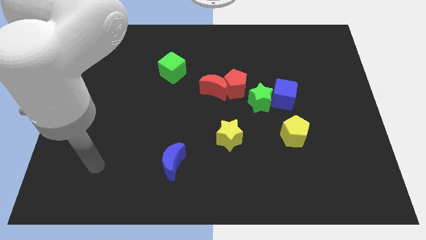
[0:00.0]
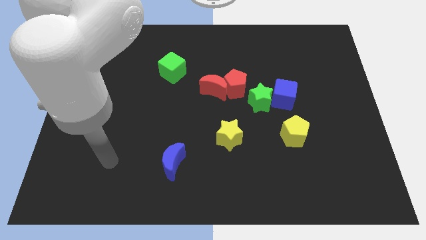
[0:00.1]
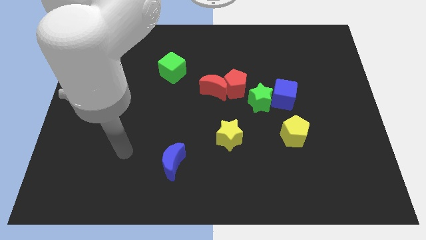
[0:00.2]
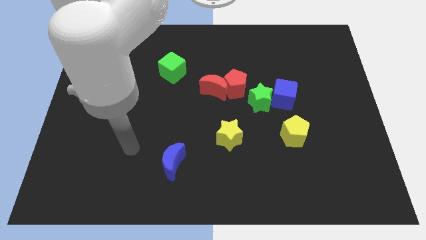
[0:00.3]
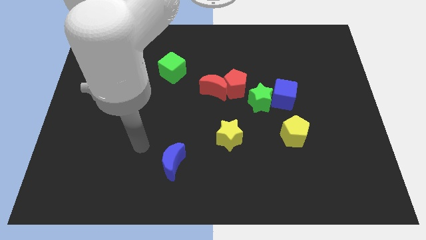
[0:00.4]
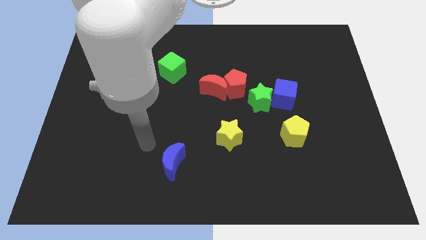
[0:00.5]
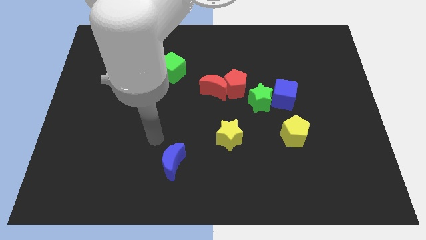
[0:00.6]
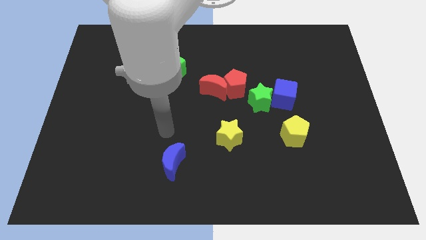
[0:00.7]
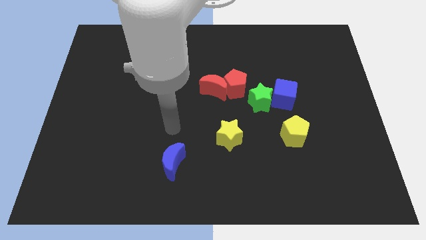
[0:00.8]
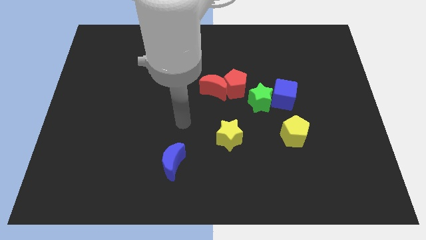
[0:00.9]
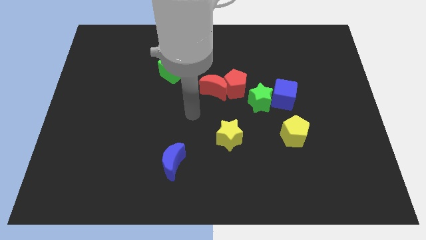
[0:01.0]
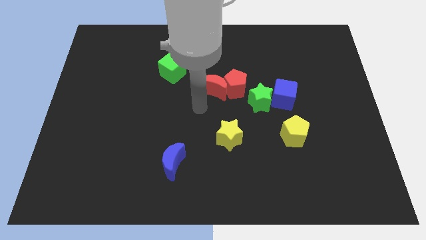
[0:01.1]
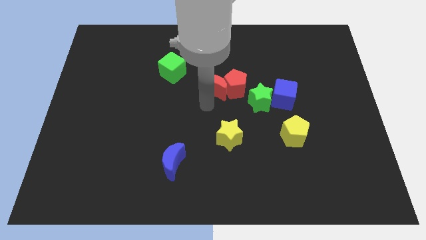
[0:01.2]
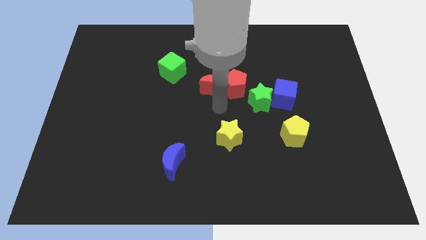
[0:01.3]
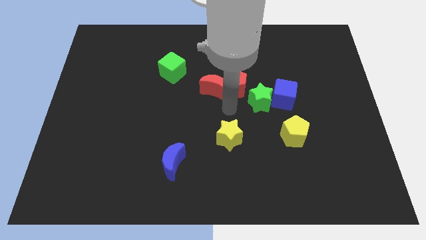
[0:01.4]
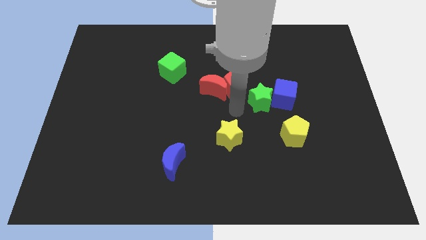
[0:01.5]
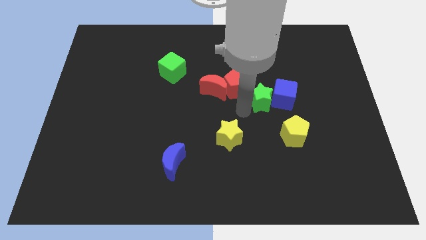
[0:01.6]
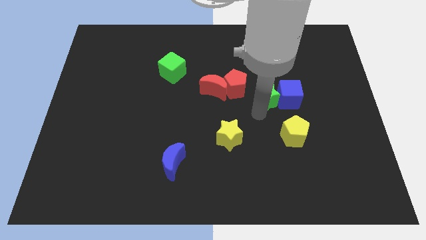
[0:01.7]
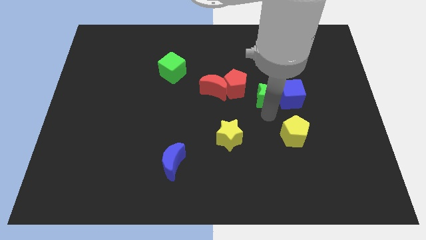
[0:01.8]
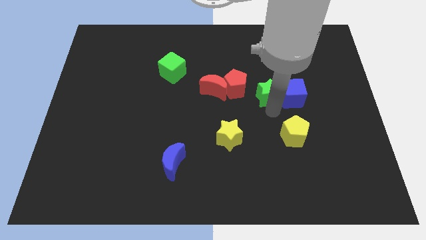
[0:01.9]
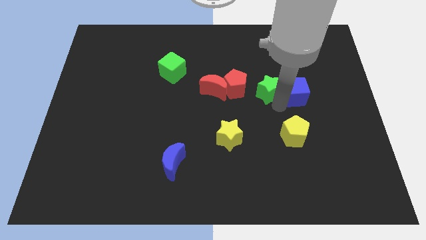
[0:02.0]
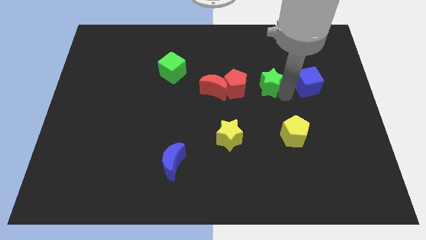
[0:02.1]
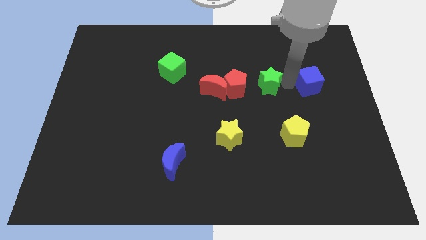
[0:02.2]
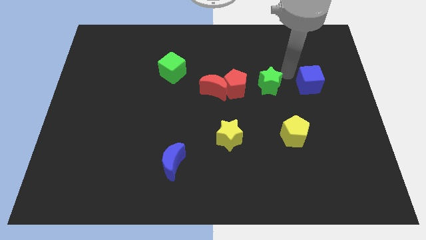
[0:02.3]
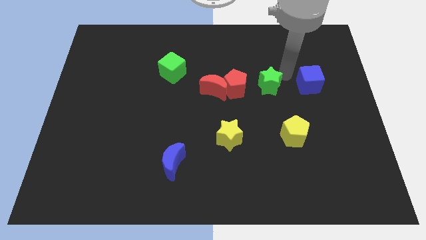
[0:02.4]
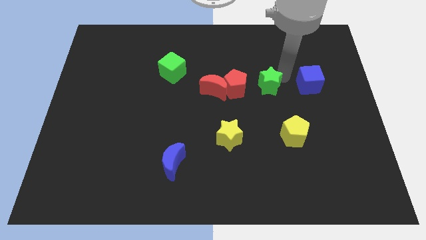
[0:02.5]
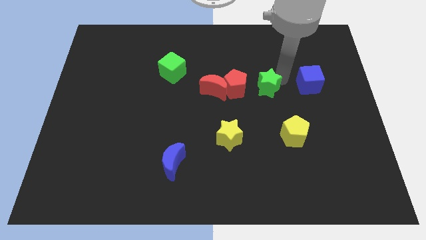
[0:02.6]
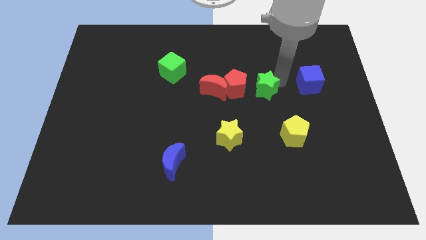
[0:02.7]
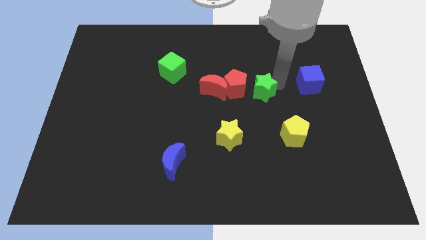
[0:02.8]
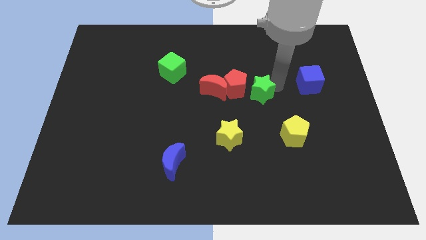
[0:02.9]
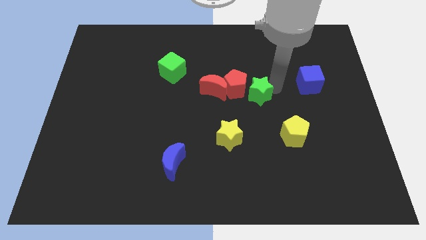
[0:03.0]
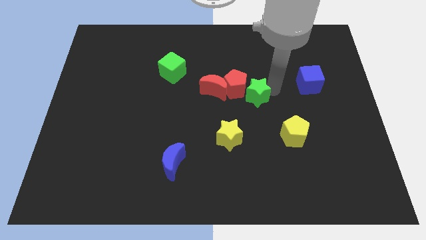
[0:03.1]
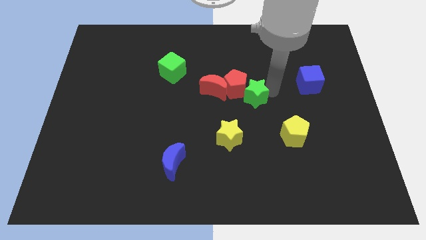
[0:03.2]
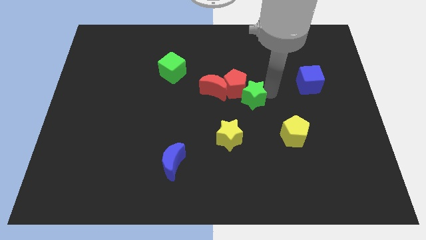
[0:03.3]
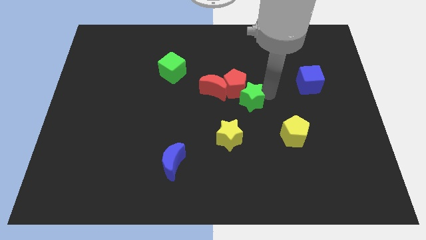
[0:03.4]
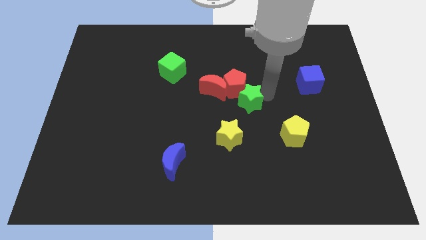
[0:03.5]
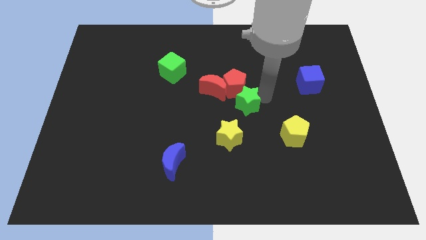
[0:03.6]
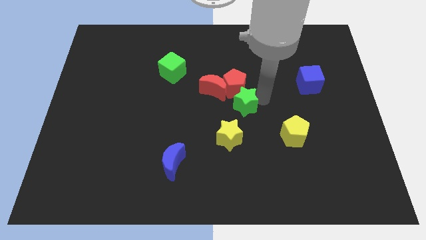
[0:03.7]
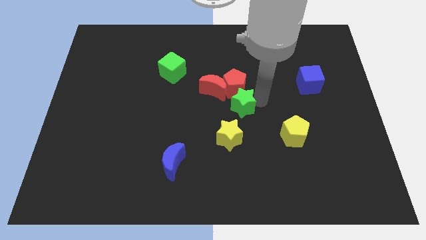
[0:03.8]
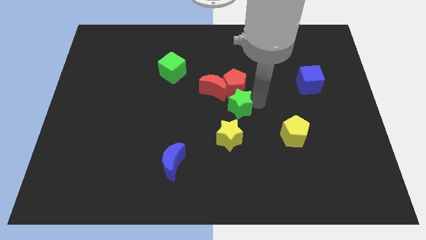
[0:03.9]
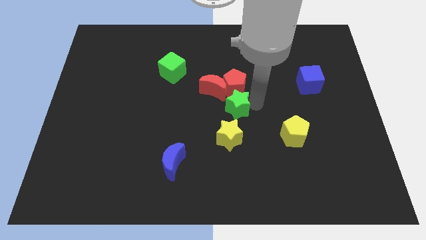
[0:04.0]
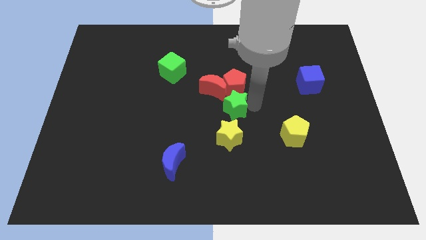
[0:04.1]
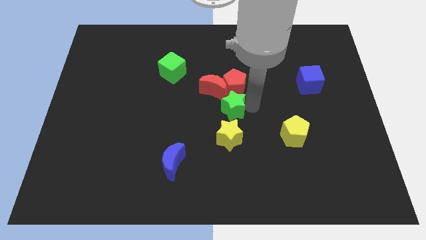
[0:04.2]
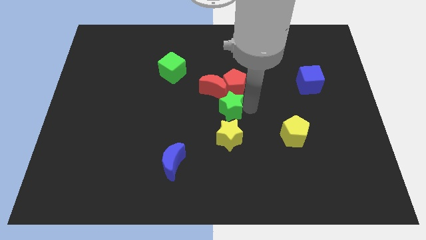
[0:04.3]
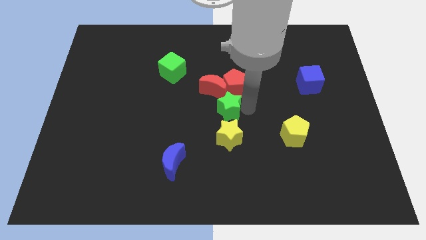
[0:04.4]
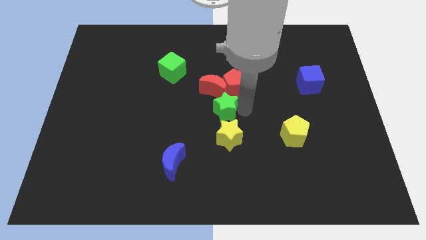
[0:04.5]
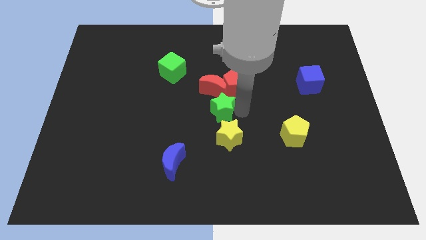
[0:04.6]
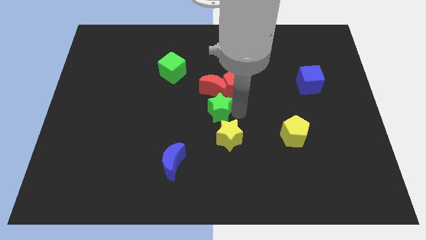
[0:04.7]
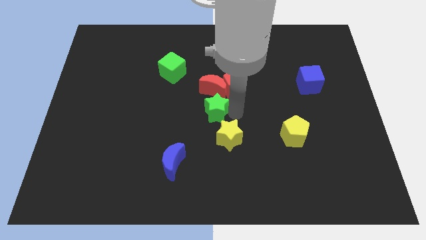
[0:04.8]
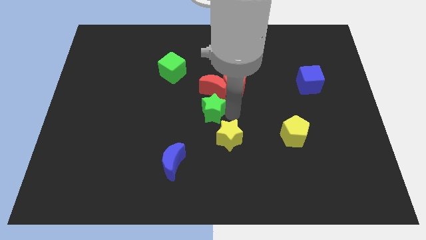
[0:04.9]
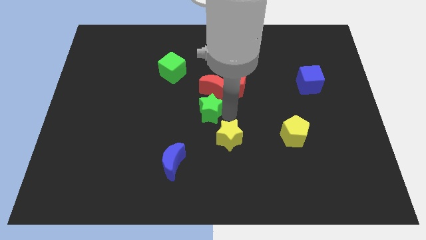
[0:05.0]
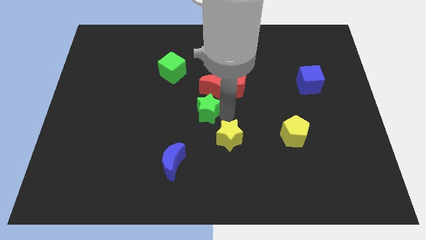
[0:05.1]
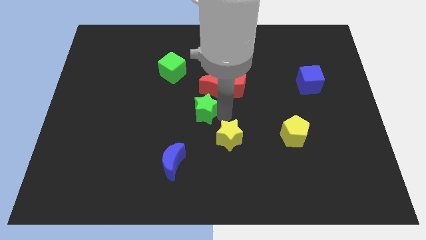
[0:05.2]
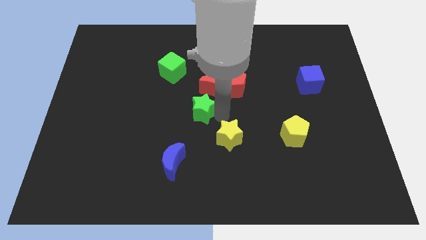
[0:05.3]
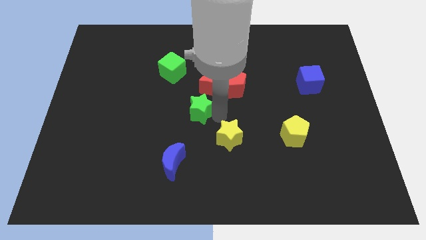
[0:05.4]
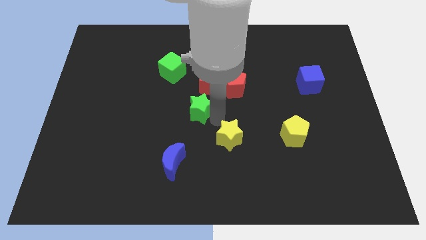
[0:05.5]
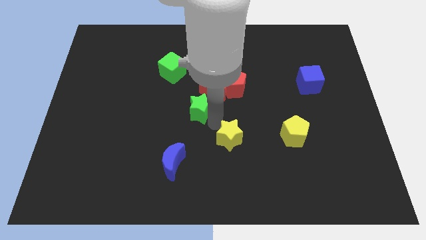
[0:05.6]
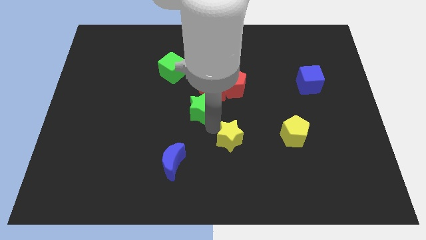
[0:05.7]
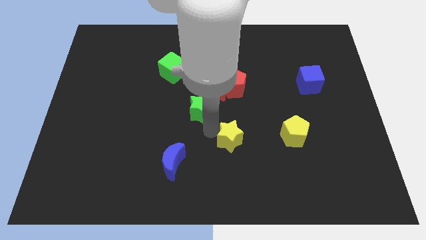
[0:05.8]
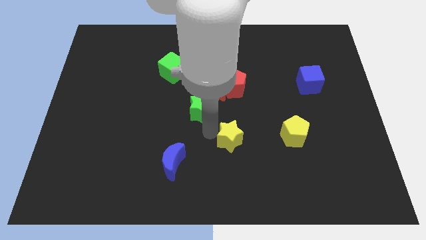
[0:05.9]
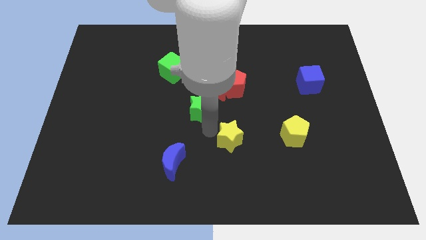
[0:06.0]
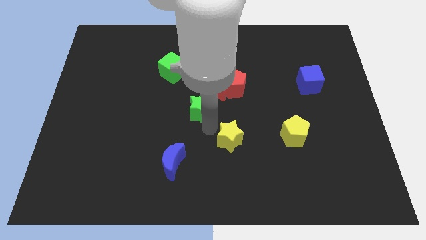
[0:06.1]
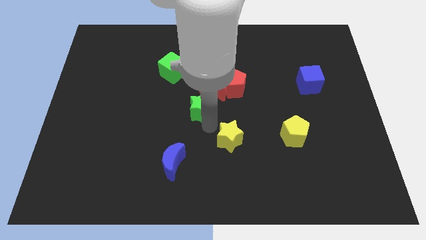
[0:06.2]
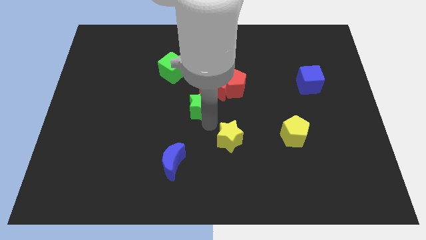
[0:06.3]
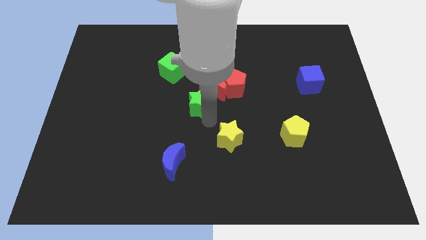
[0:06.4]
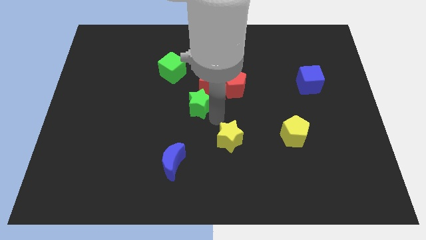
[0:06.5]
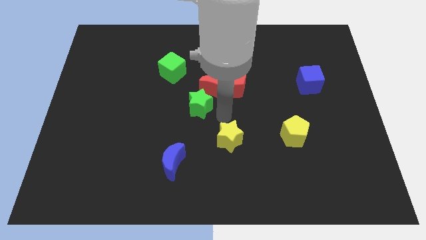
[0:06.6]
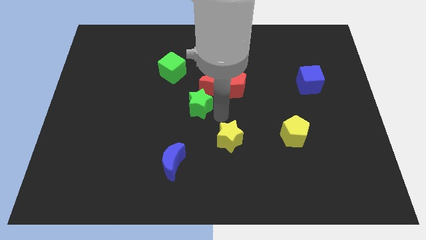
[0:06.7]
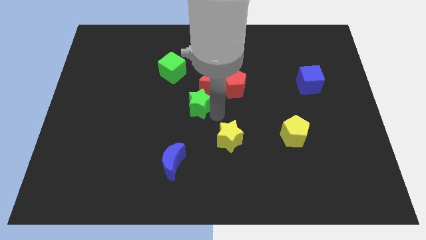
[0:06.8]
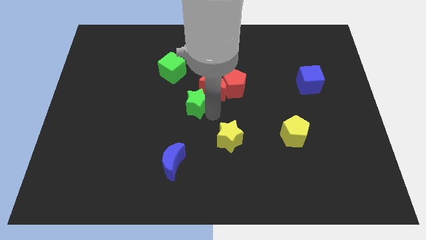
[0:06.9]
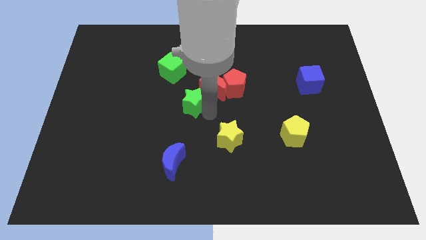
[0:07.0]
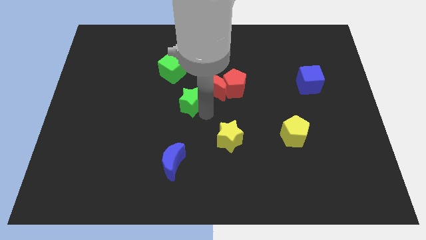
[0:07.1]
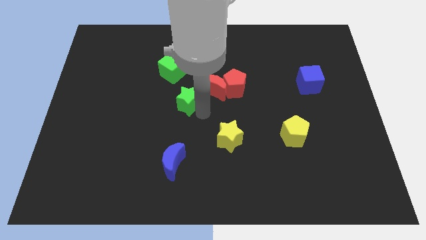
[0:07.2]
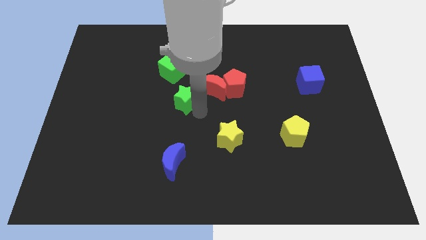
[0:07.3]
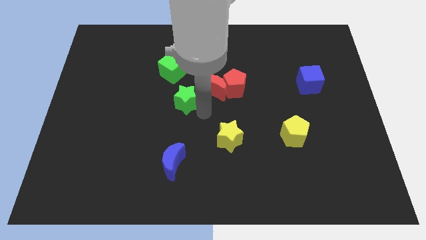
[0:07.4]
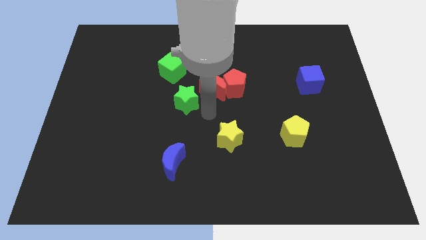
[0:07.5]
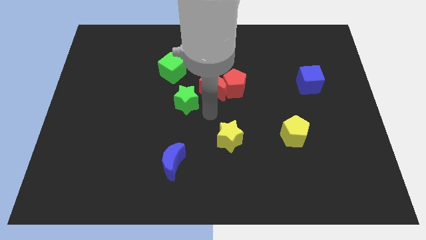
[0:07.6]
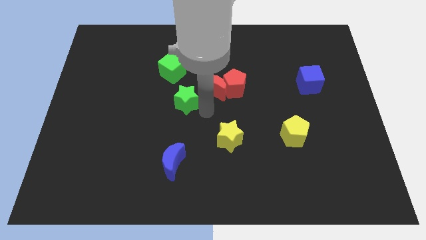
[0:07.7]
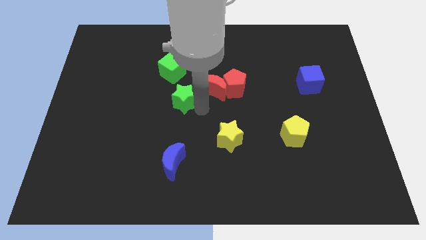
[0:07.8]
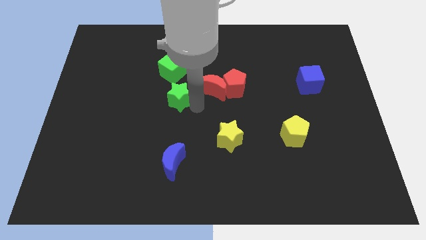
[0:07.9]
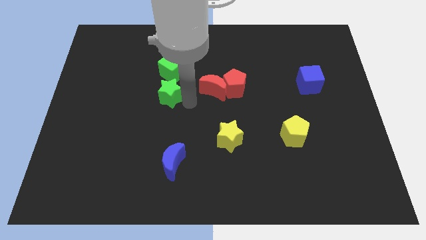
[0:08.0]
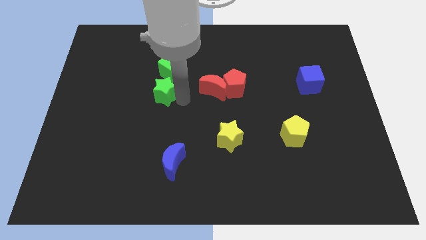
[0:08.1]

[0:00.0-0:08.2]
move the green star to the bottom left of the green cube
